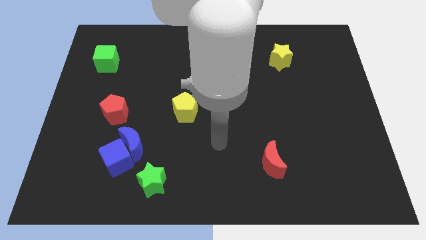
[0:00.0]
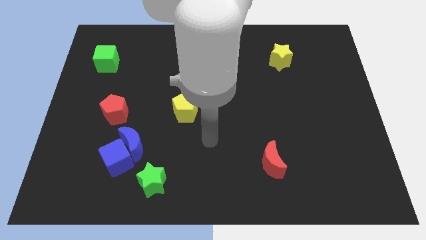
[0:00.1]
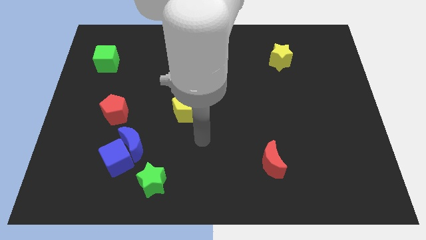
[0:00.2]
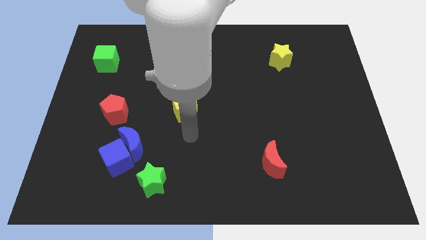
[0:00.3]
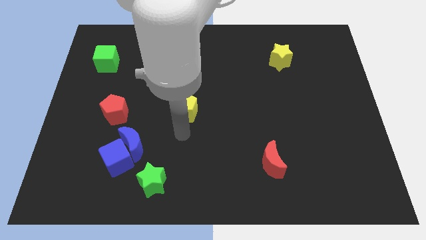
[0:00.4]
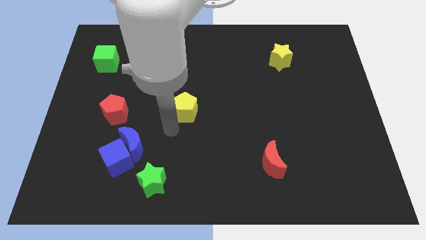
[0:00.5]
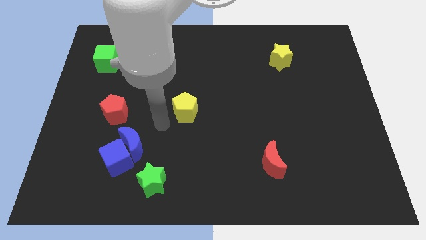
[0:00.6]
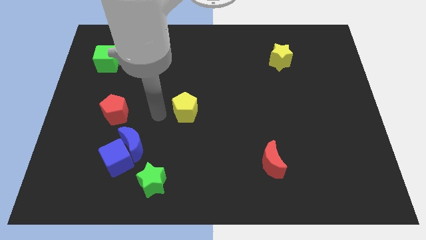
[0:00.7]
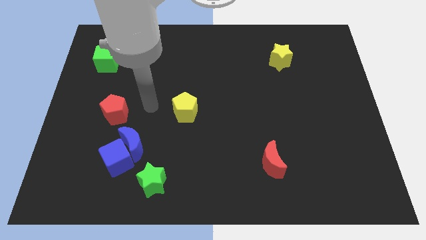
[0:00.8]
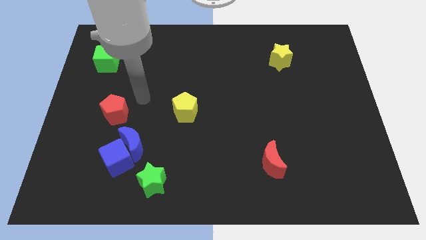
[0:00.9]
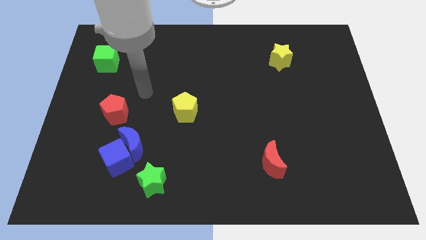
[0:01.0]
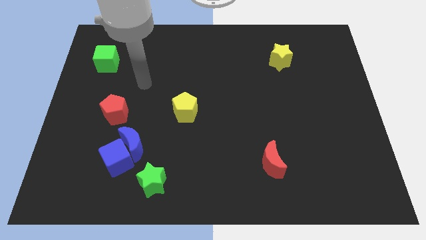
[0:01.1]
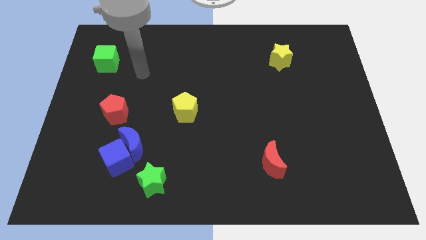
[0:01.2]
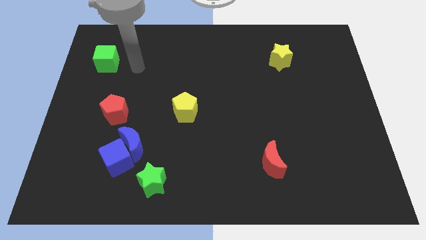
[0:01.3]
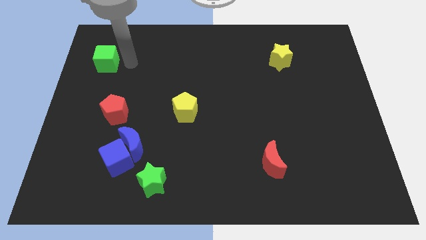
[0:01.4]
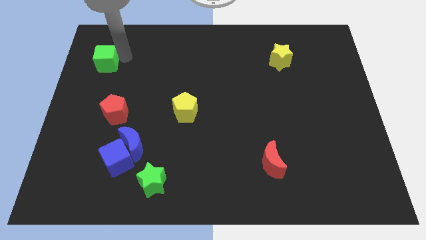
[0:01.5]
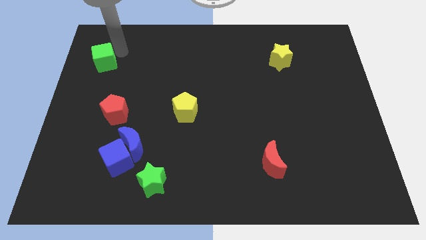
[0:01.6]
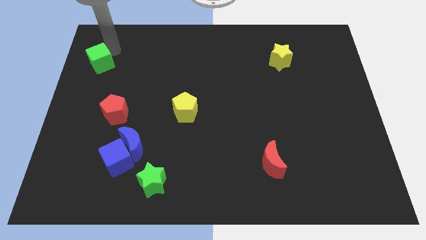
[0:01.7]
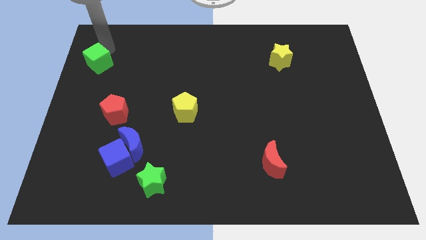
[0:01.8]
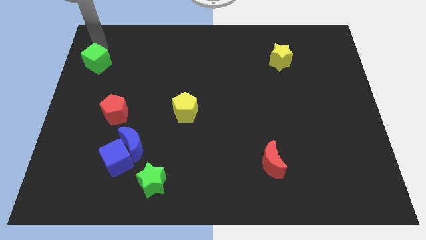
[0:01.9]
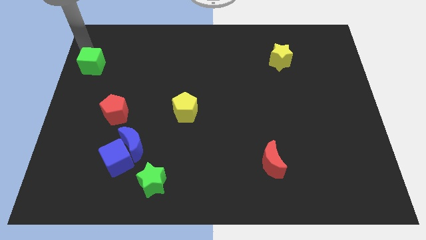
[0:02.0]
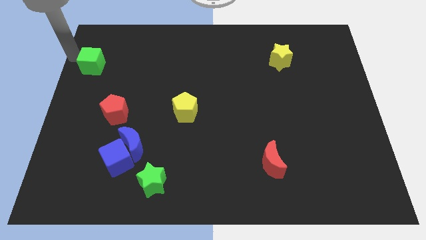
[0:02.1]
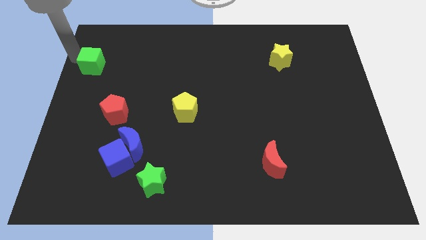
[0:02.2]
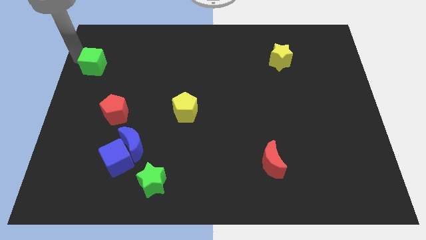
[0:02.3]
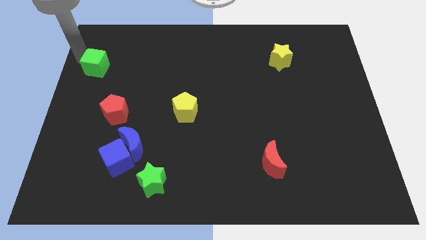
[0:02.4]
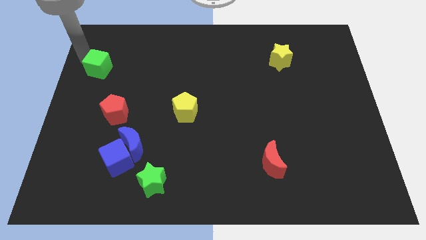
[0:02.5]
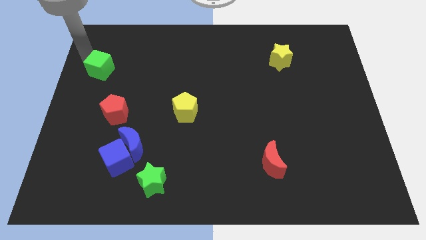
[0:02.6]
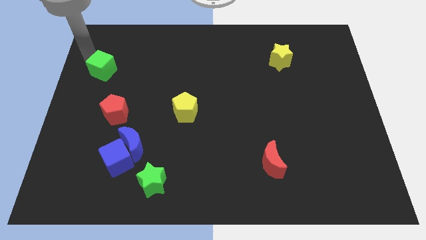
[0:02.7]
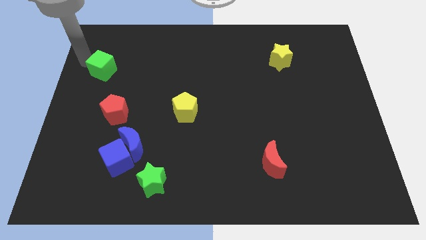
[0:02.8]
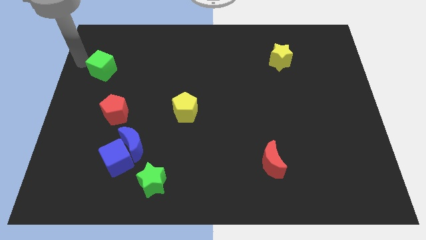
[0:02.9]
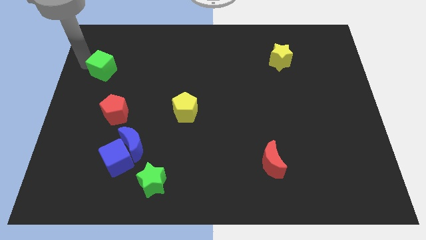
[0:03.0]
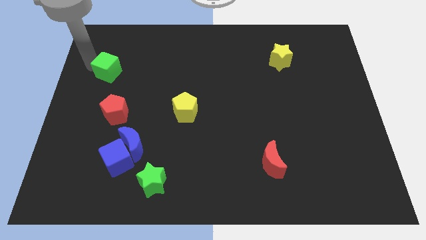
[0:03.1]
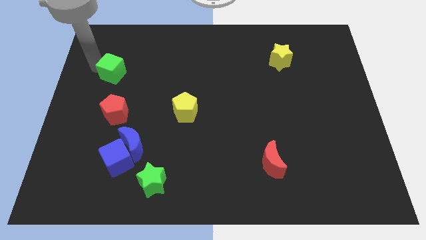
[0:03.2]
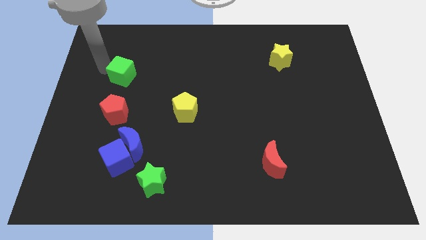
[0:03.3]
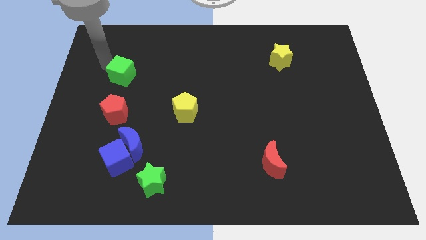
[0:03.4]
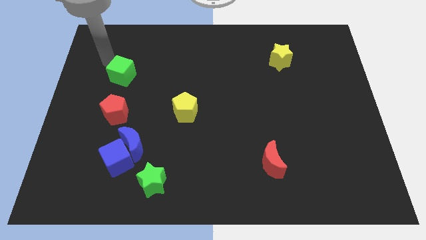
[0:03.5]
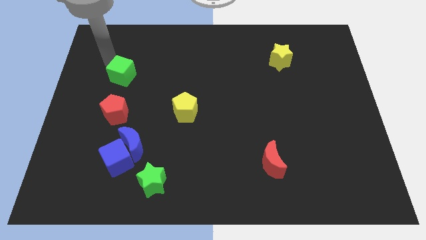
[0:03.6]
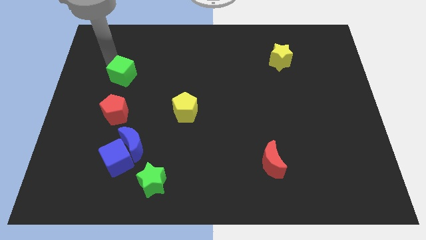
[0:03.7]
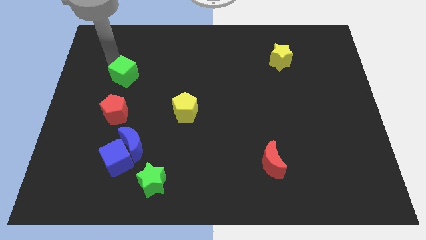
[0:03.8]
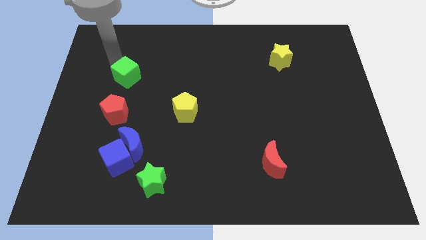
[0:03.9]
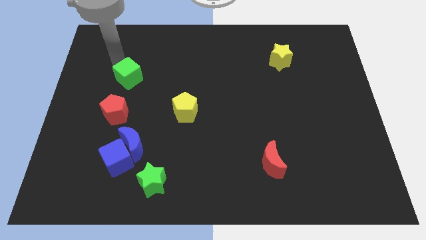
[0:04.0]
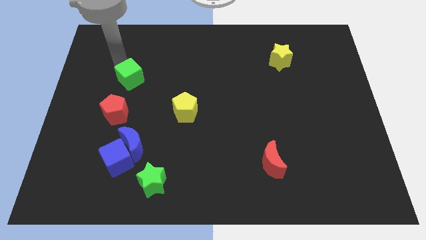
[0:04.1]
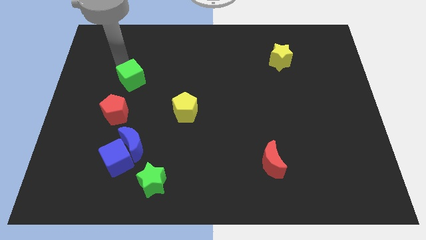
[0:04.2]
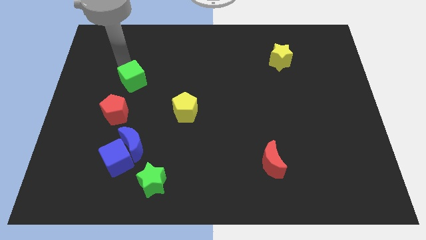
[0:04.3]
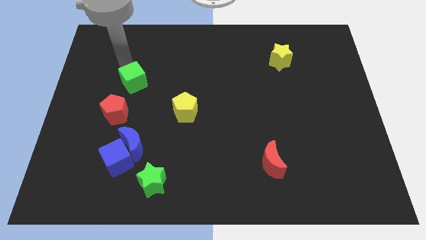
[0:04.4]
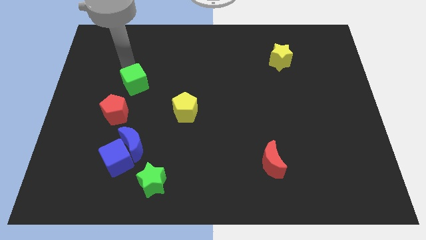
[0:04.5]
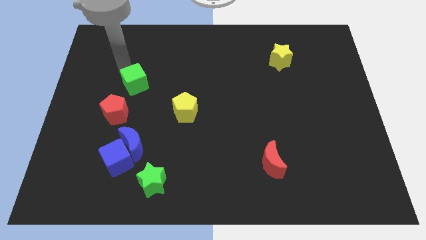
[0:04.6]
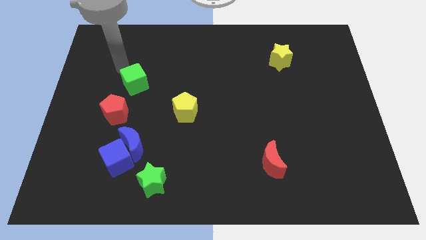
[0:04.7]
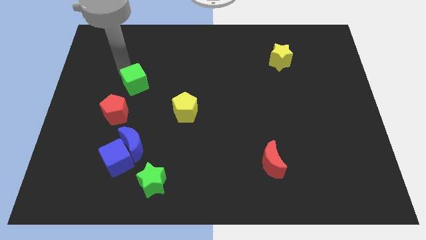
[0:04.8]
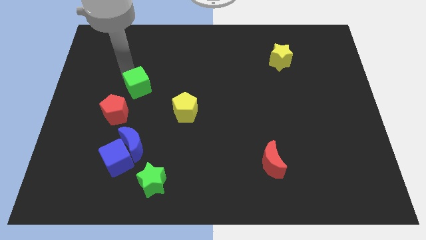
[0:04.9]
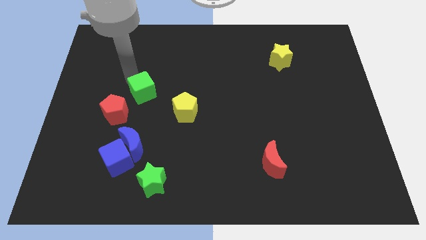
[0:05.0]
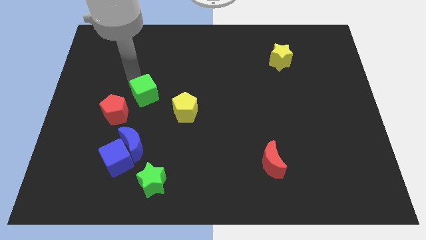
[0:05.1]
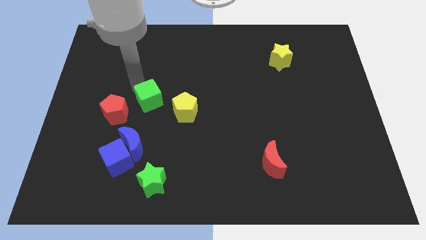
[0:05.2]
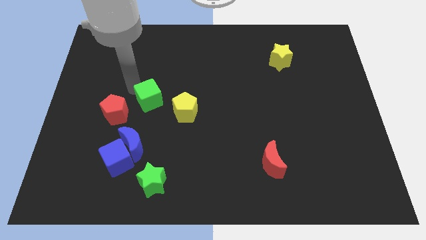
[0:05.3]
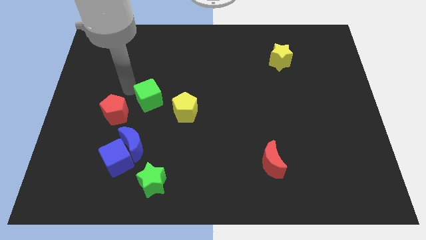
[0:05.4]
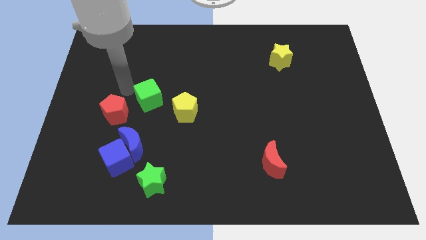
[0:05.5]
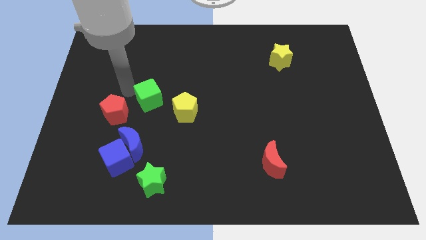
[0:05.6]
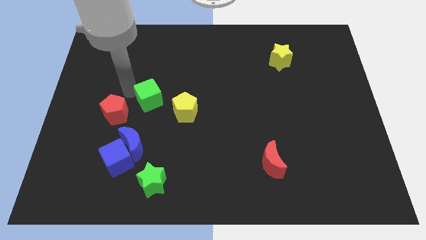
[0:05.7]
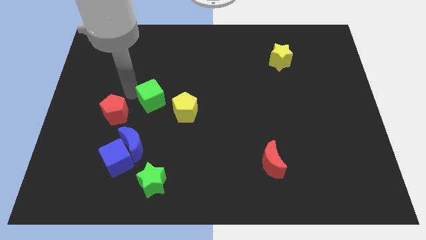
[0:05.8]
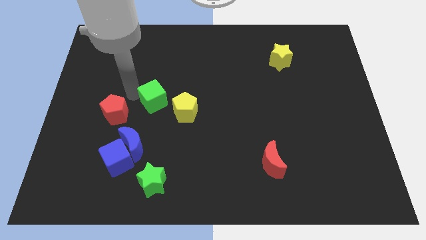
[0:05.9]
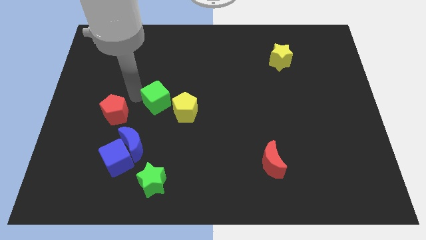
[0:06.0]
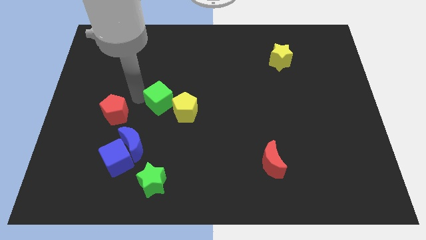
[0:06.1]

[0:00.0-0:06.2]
push the green cube down and right

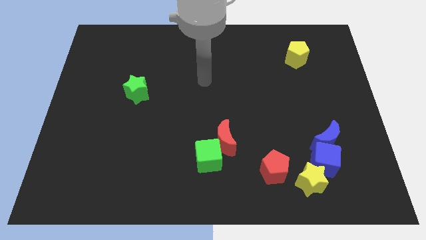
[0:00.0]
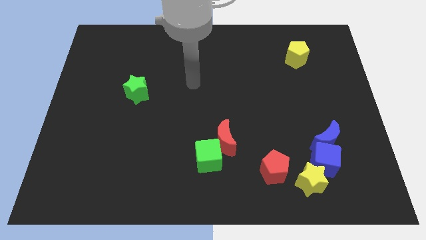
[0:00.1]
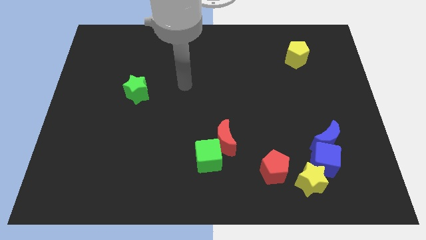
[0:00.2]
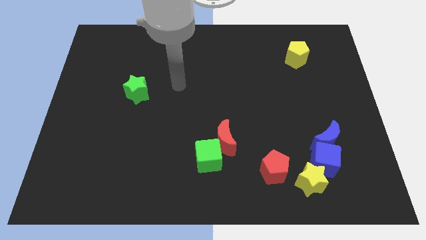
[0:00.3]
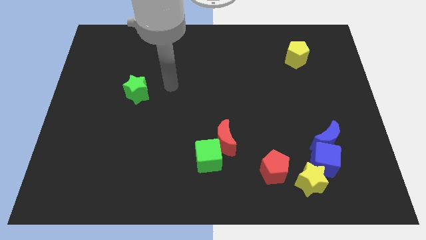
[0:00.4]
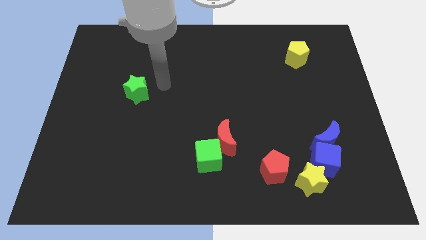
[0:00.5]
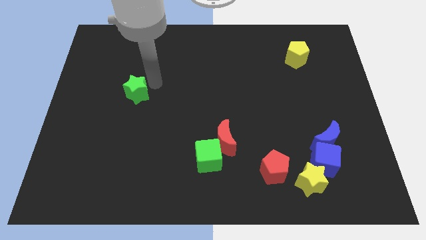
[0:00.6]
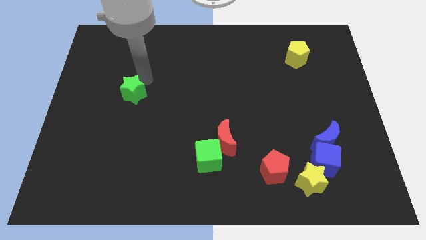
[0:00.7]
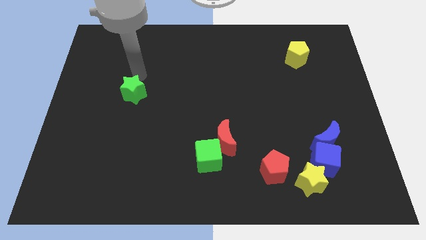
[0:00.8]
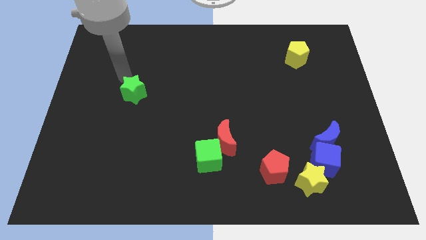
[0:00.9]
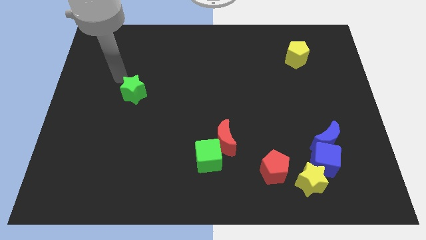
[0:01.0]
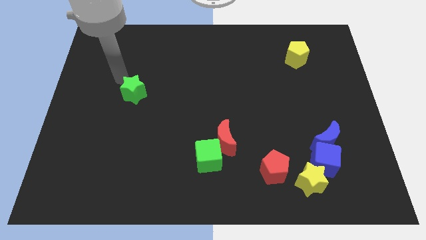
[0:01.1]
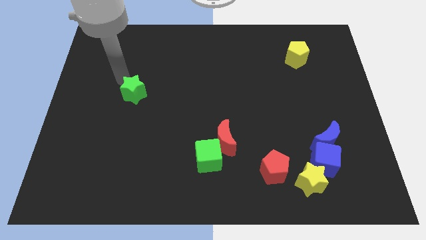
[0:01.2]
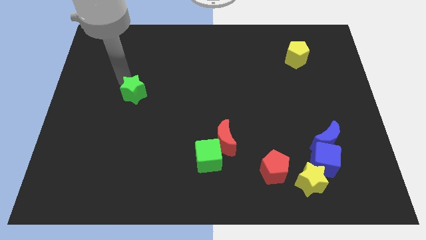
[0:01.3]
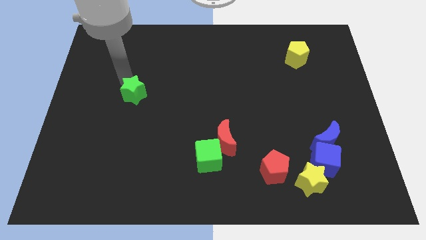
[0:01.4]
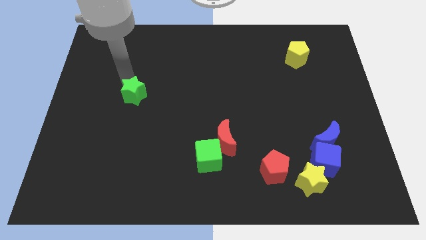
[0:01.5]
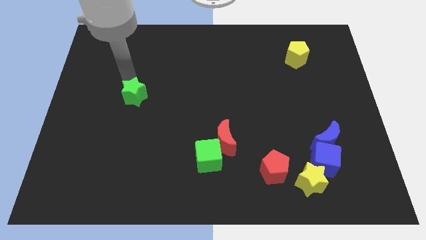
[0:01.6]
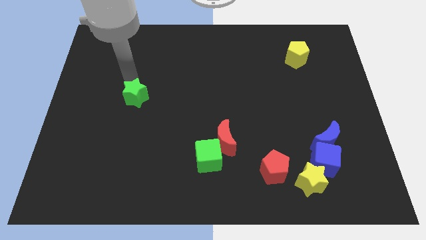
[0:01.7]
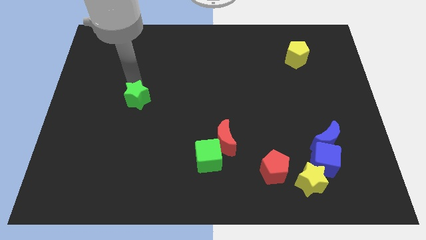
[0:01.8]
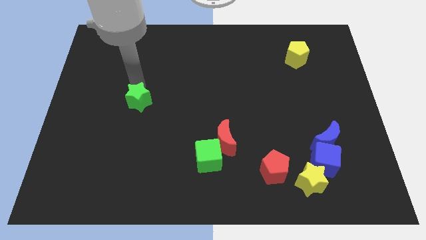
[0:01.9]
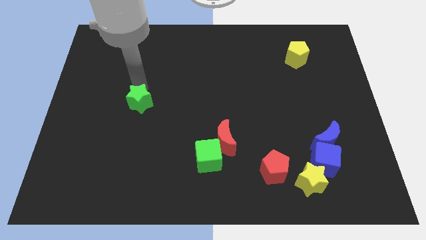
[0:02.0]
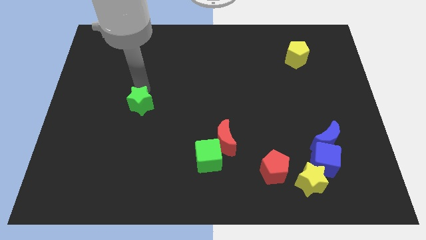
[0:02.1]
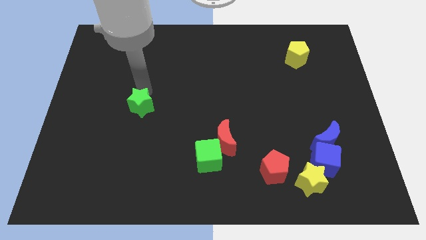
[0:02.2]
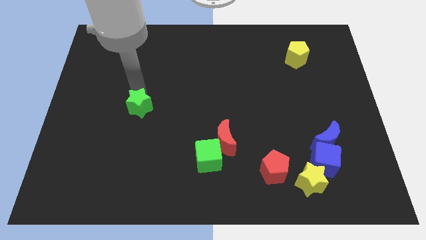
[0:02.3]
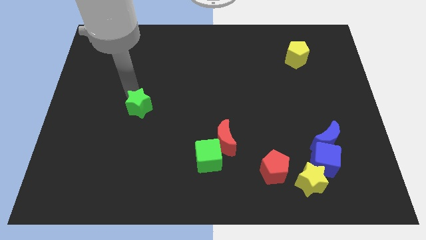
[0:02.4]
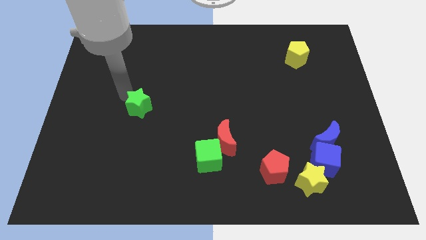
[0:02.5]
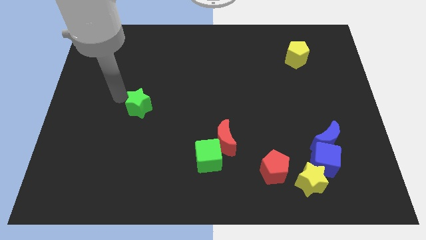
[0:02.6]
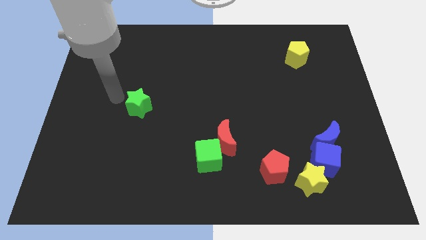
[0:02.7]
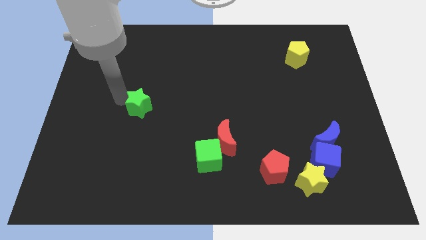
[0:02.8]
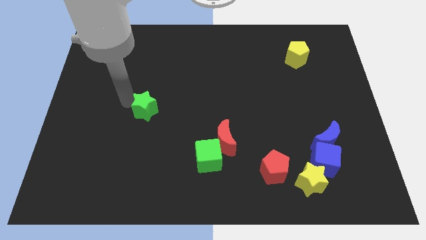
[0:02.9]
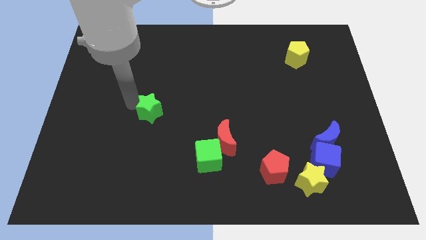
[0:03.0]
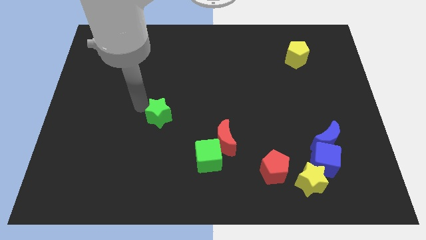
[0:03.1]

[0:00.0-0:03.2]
slide the green star diagonally downwards and to the right a little bit
